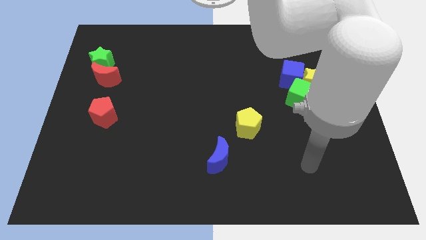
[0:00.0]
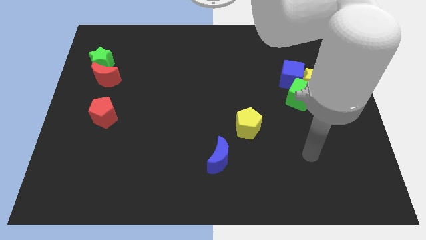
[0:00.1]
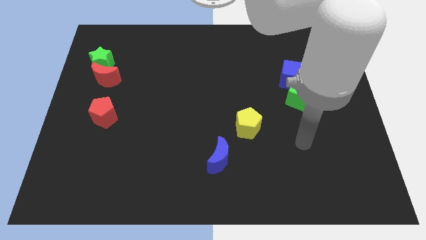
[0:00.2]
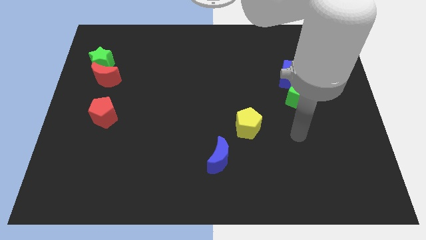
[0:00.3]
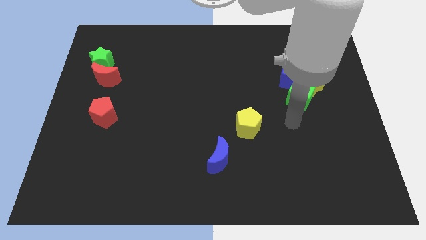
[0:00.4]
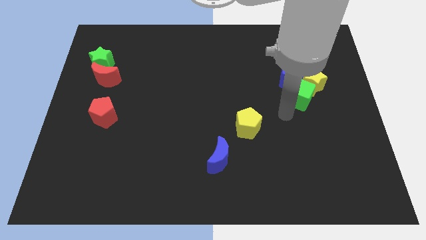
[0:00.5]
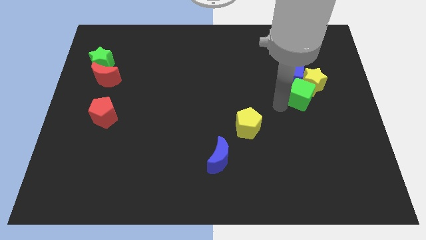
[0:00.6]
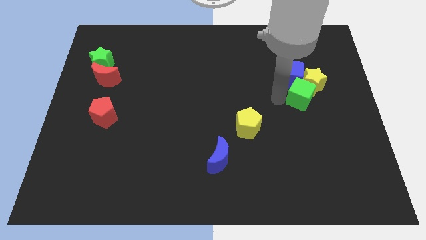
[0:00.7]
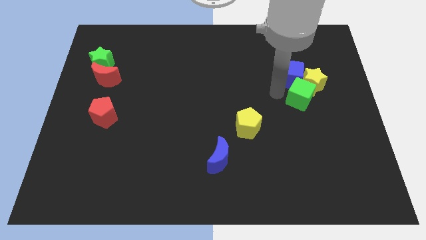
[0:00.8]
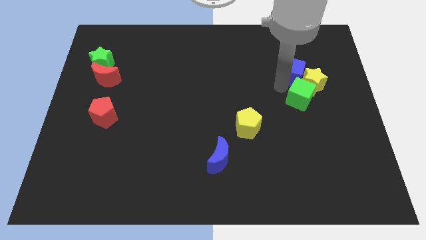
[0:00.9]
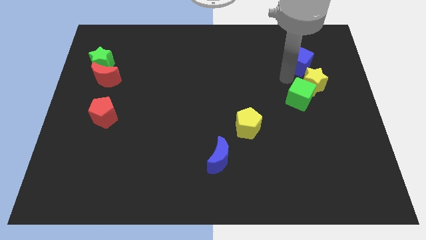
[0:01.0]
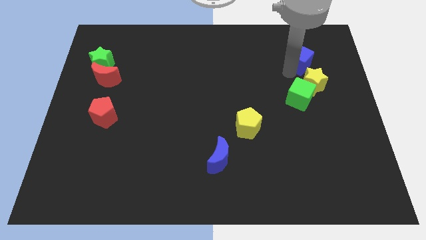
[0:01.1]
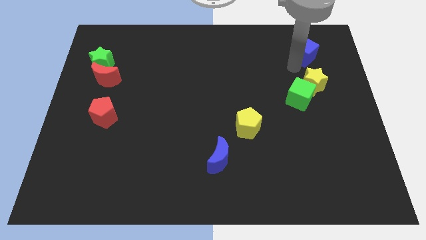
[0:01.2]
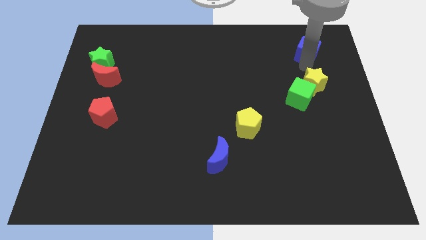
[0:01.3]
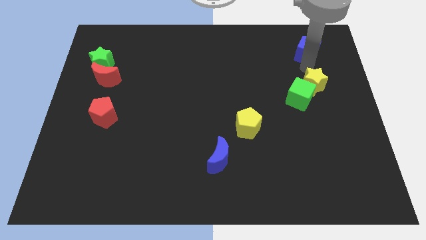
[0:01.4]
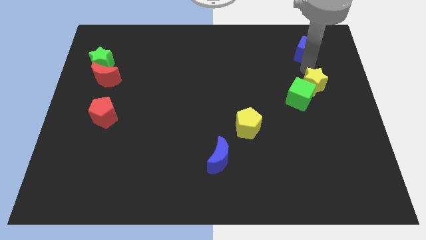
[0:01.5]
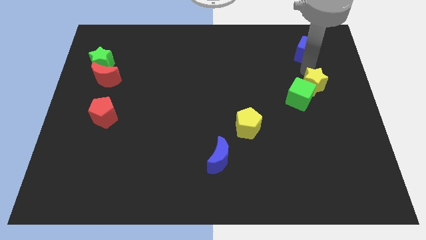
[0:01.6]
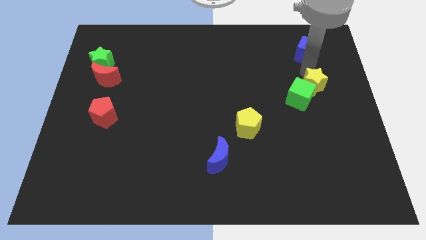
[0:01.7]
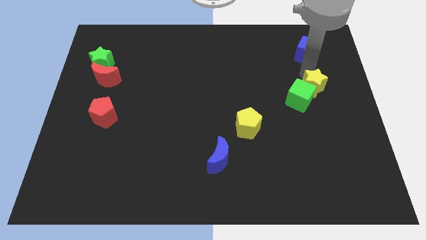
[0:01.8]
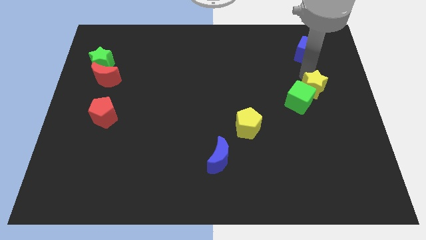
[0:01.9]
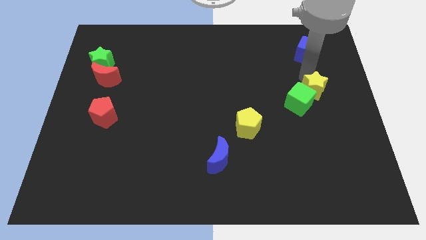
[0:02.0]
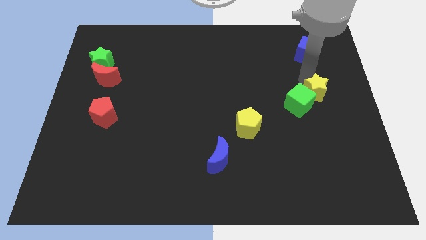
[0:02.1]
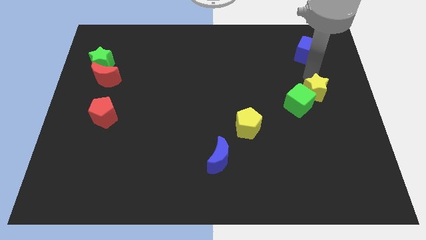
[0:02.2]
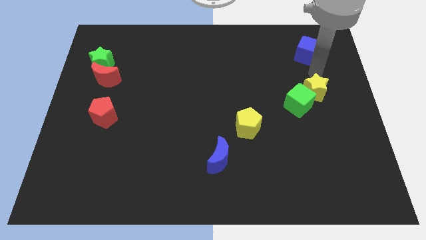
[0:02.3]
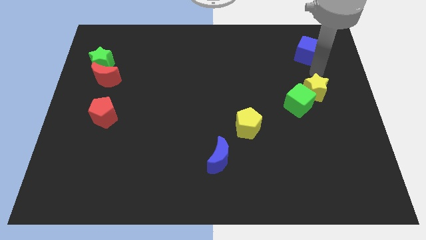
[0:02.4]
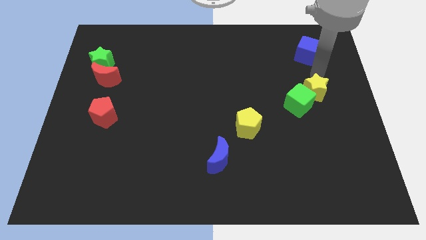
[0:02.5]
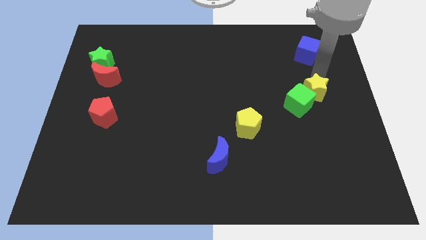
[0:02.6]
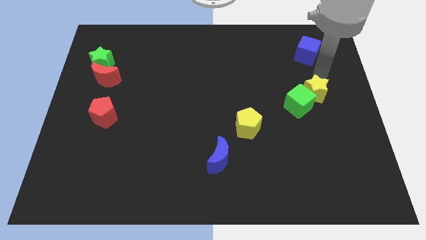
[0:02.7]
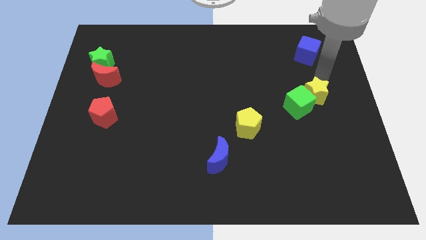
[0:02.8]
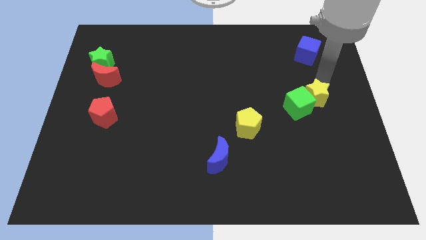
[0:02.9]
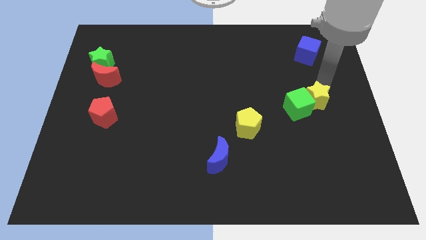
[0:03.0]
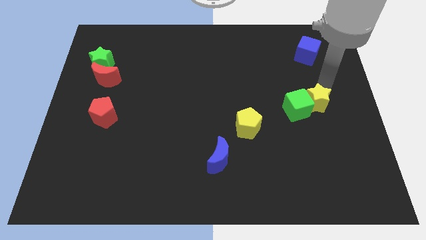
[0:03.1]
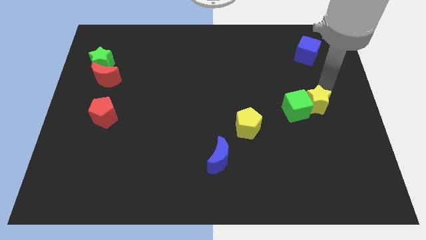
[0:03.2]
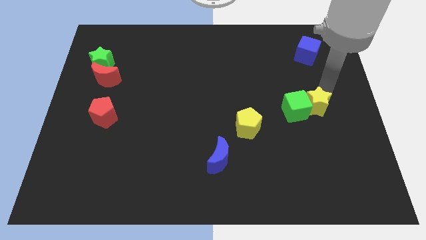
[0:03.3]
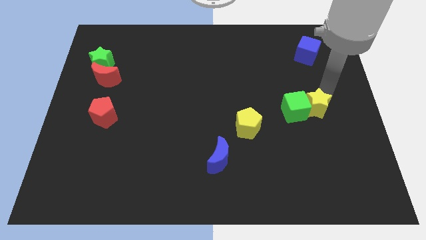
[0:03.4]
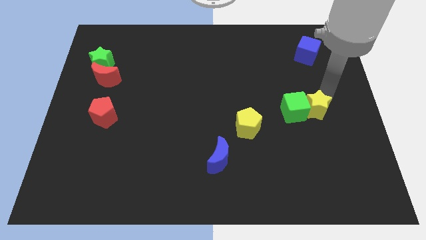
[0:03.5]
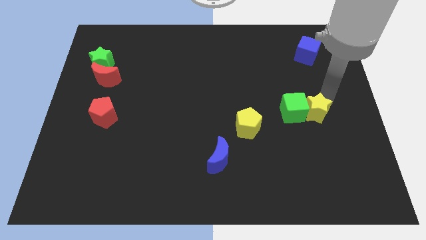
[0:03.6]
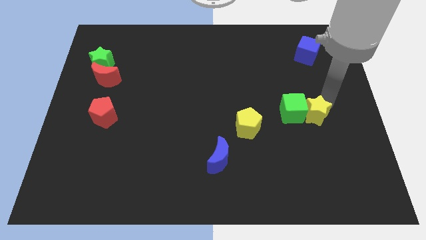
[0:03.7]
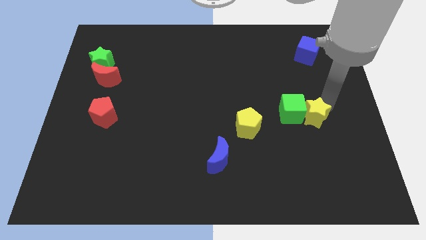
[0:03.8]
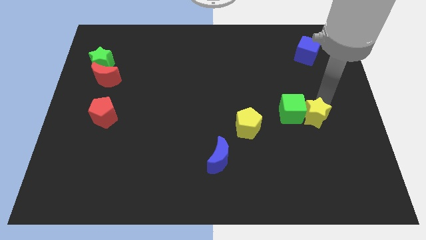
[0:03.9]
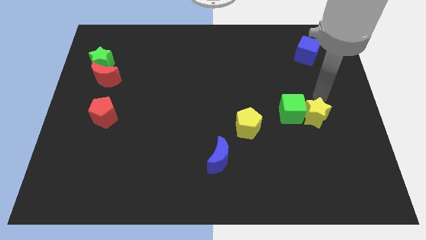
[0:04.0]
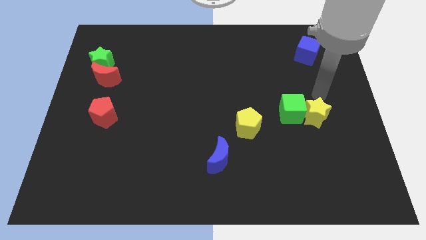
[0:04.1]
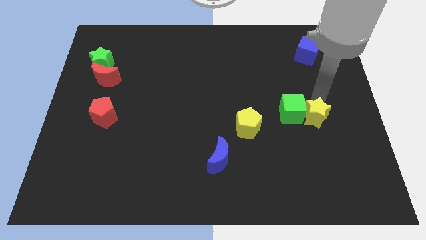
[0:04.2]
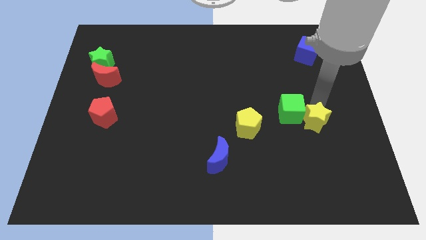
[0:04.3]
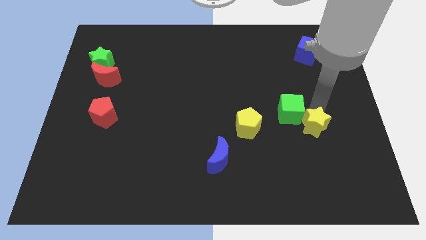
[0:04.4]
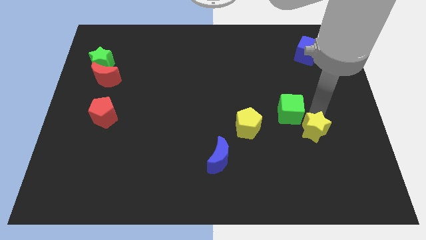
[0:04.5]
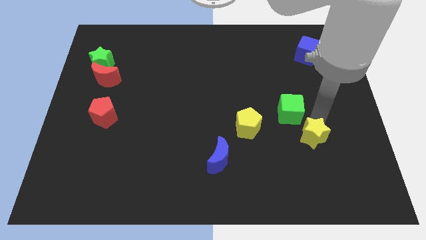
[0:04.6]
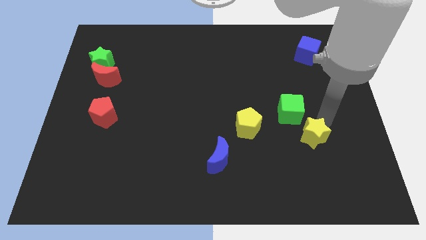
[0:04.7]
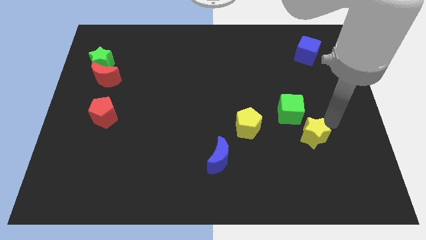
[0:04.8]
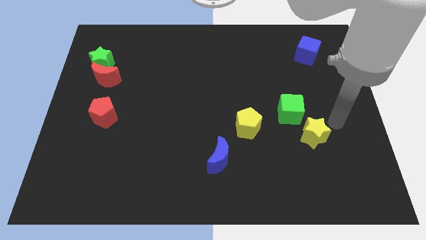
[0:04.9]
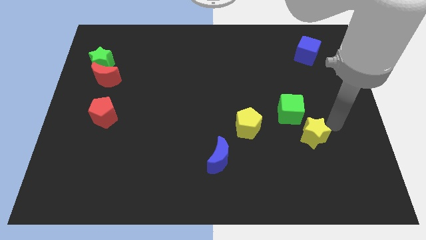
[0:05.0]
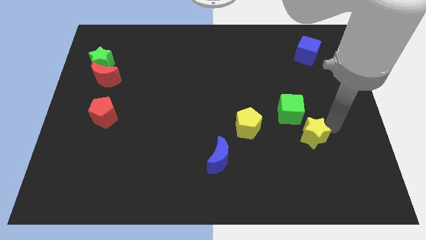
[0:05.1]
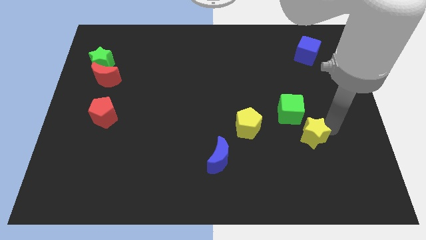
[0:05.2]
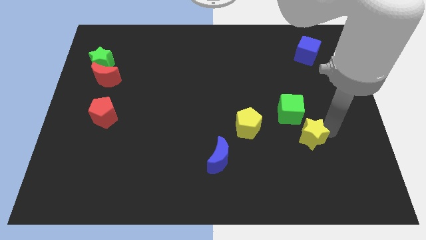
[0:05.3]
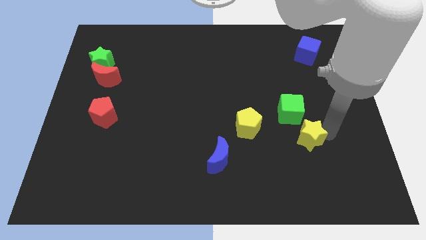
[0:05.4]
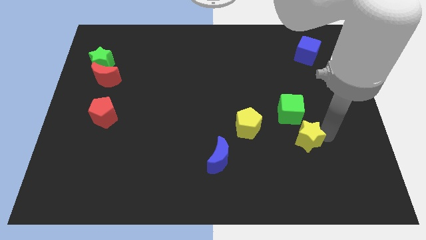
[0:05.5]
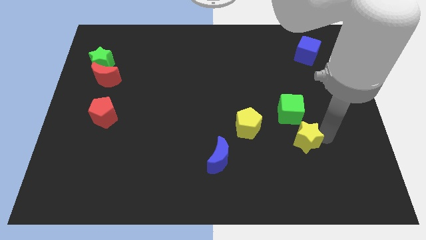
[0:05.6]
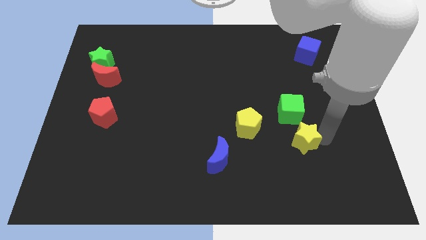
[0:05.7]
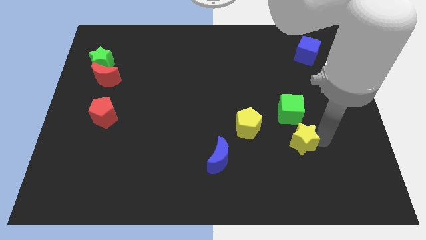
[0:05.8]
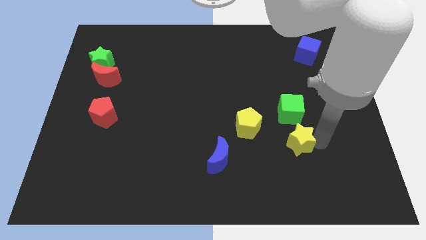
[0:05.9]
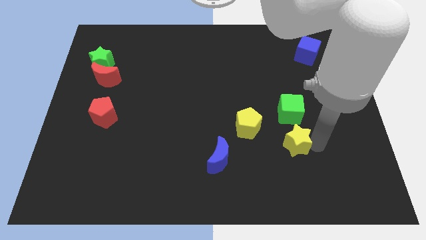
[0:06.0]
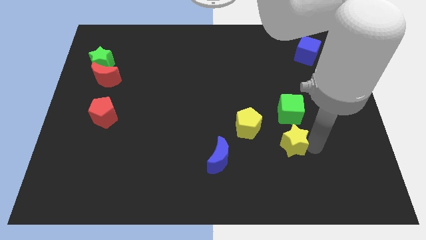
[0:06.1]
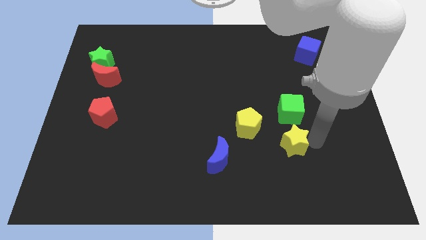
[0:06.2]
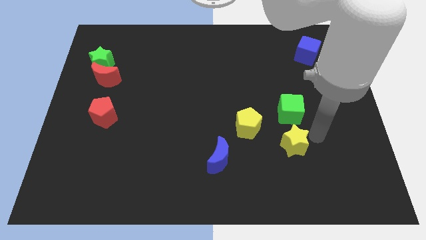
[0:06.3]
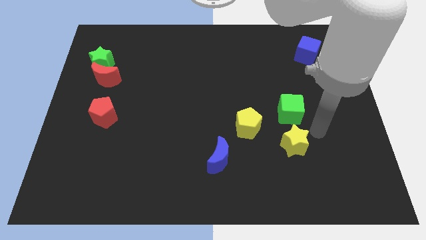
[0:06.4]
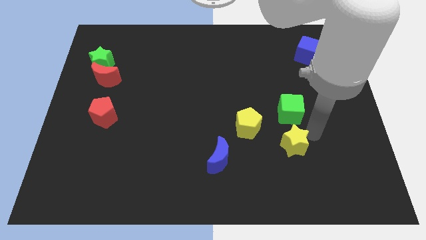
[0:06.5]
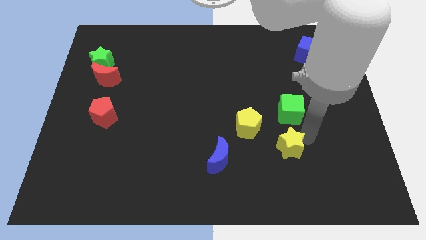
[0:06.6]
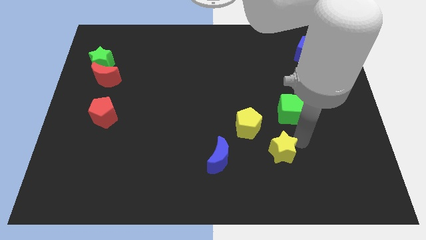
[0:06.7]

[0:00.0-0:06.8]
push the yellow star to the right of the blue moon

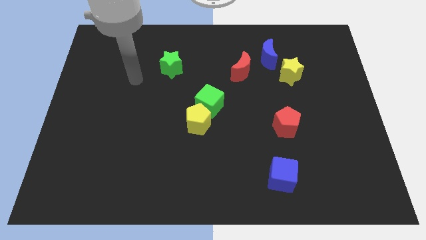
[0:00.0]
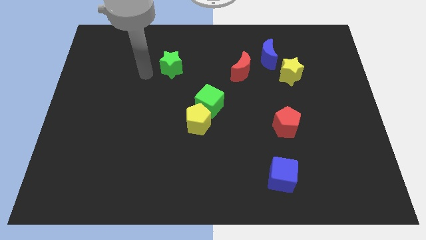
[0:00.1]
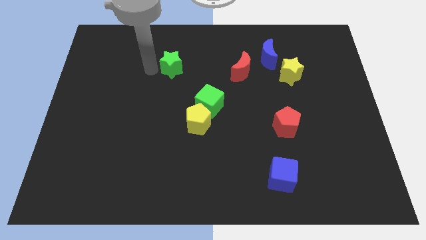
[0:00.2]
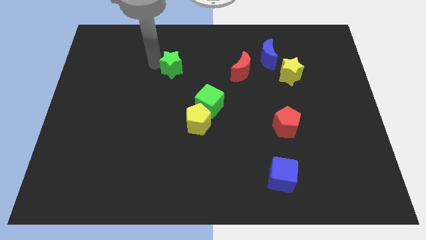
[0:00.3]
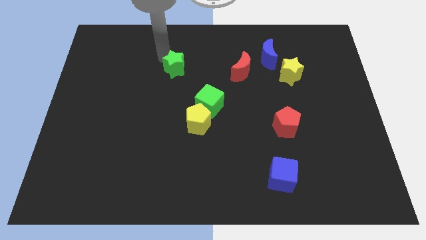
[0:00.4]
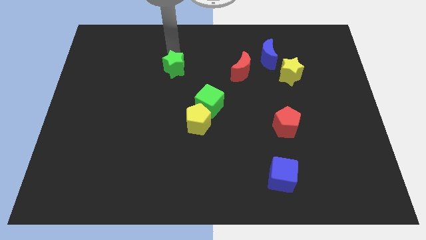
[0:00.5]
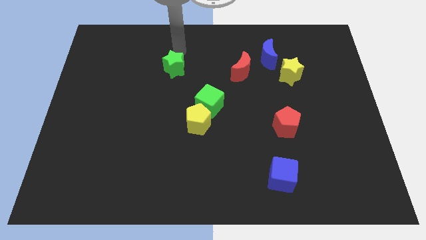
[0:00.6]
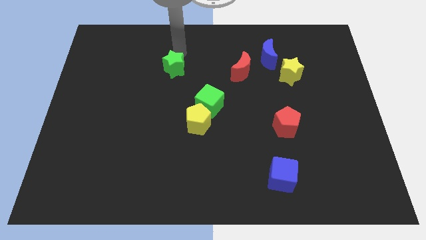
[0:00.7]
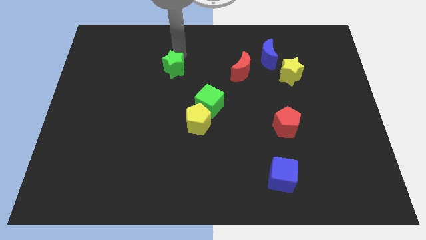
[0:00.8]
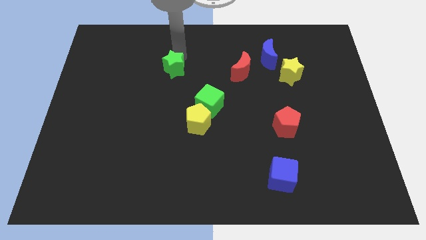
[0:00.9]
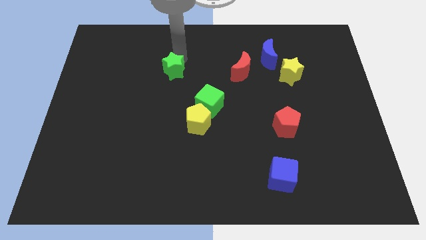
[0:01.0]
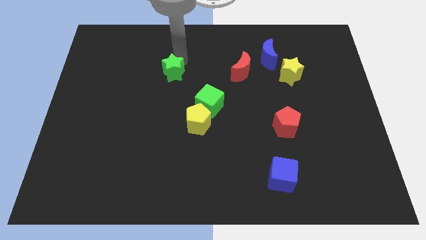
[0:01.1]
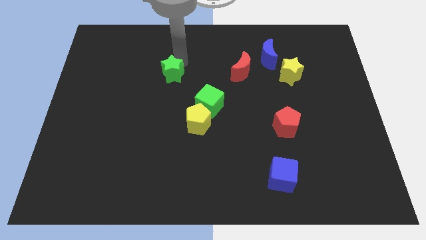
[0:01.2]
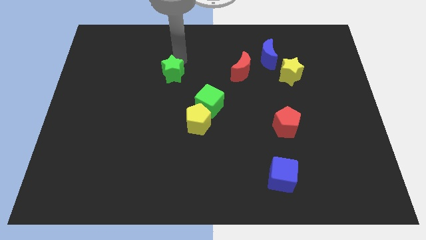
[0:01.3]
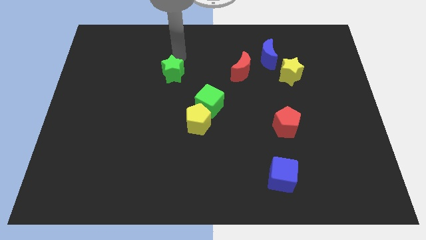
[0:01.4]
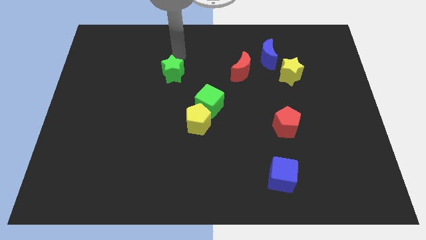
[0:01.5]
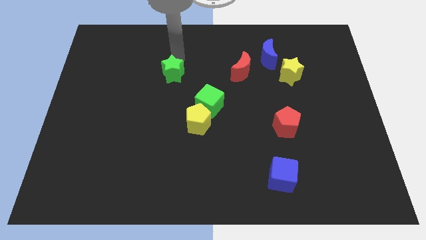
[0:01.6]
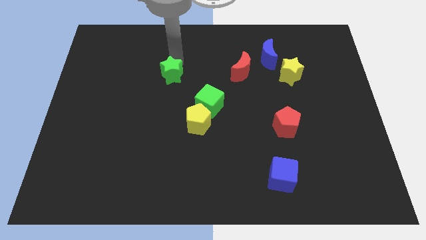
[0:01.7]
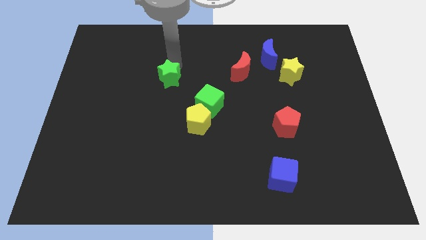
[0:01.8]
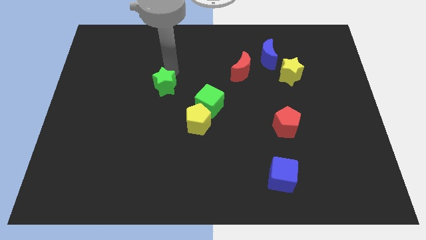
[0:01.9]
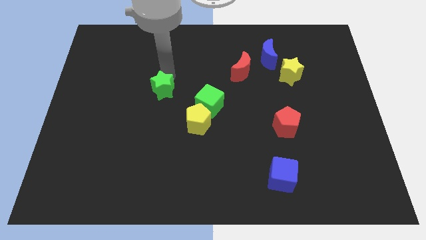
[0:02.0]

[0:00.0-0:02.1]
push the green star just left of the green cube
